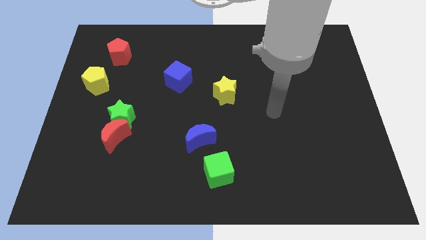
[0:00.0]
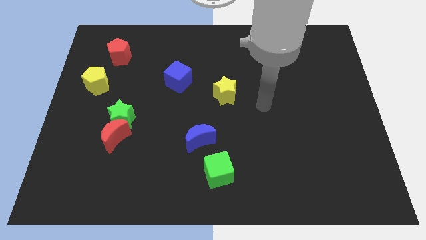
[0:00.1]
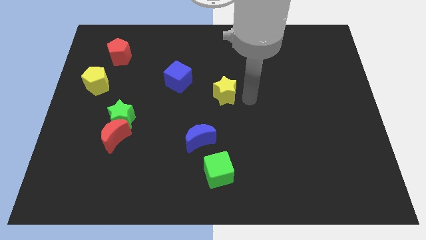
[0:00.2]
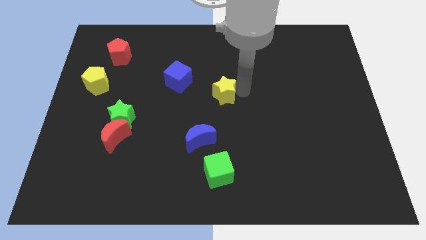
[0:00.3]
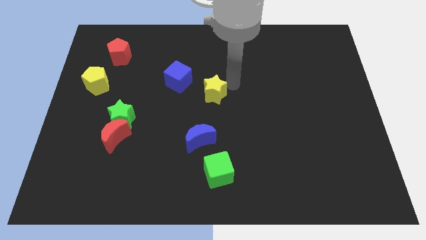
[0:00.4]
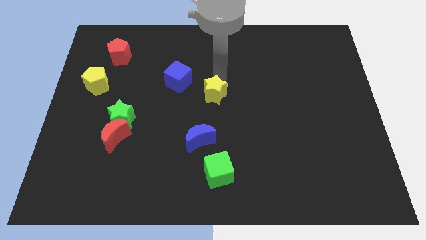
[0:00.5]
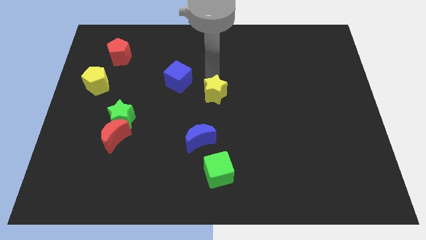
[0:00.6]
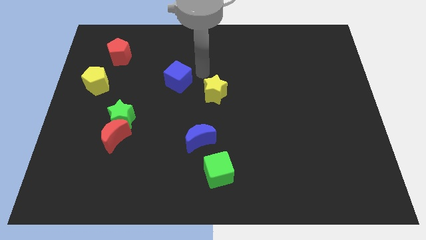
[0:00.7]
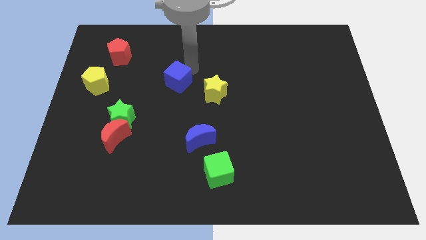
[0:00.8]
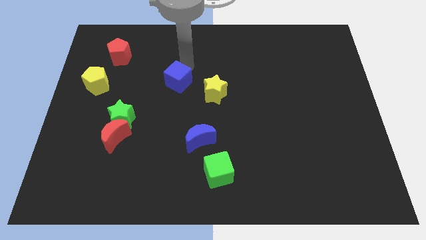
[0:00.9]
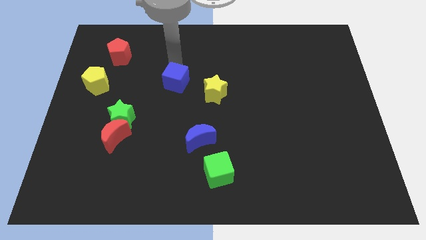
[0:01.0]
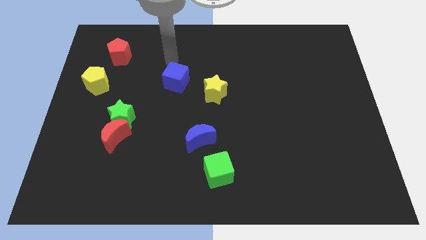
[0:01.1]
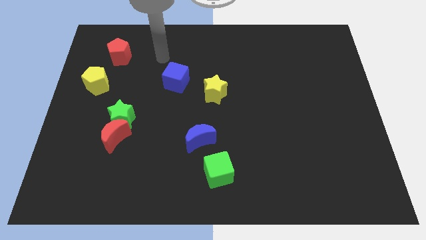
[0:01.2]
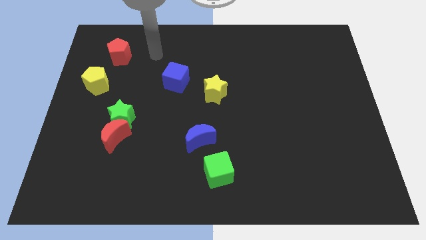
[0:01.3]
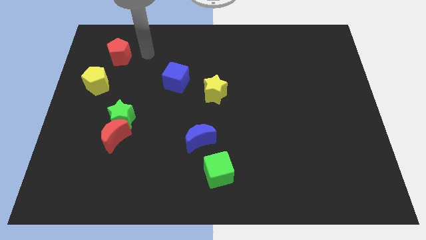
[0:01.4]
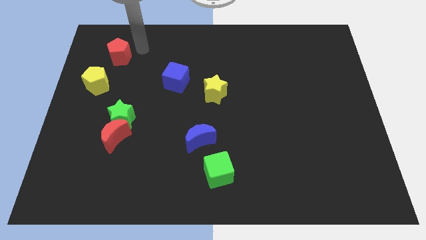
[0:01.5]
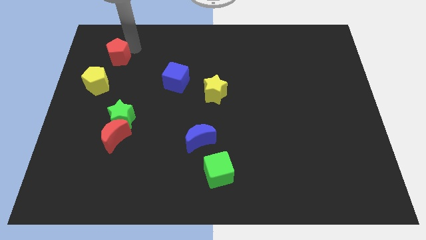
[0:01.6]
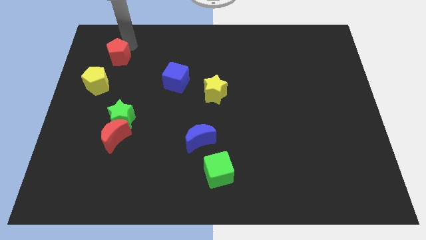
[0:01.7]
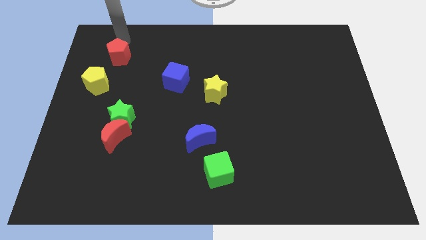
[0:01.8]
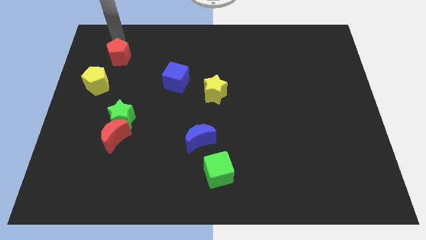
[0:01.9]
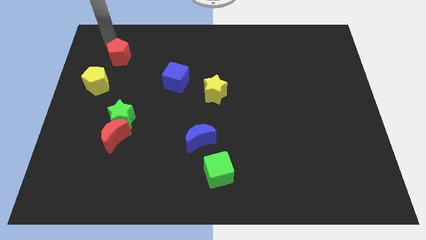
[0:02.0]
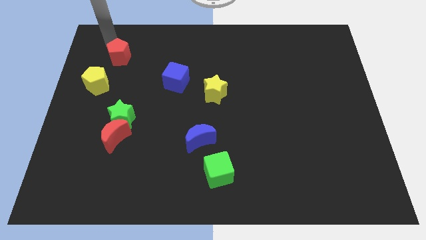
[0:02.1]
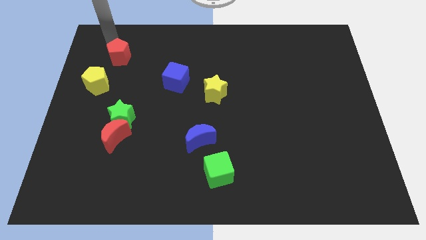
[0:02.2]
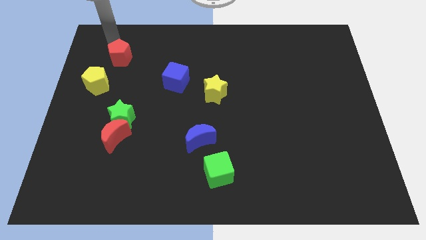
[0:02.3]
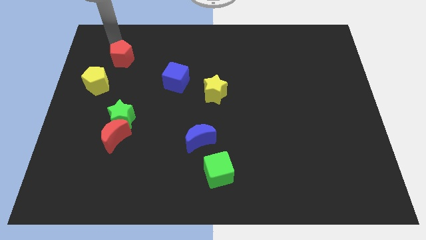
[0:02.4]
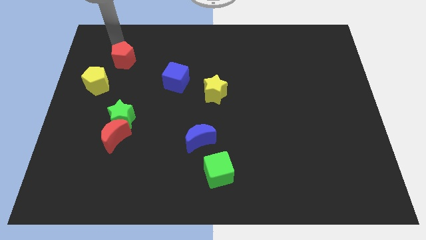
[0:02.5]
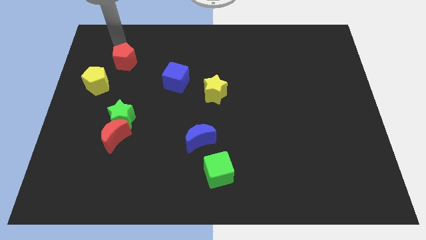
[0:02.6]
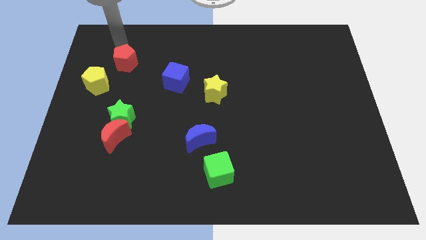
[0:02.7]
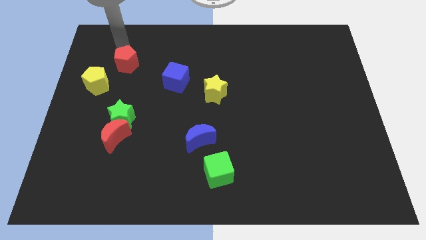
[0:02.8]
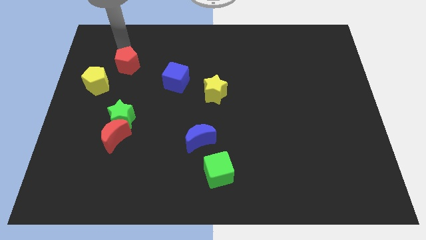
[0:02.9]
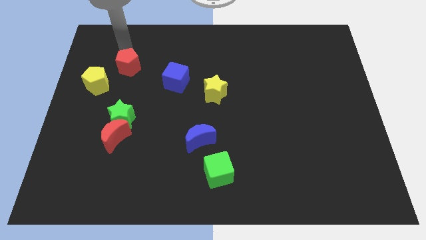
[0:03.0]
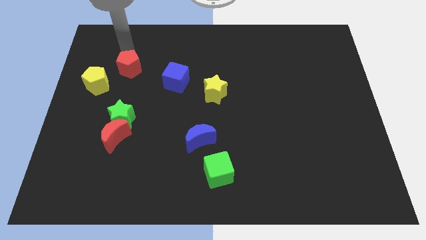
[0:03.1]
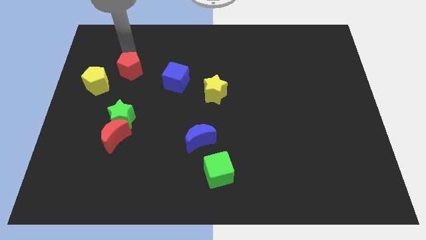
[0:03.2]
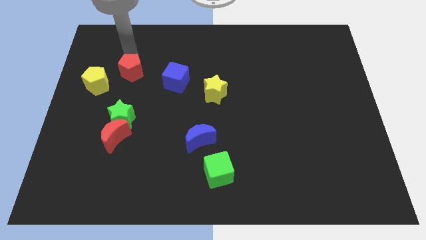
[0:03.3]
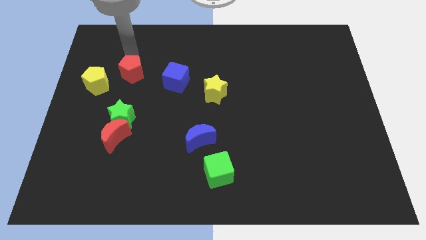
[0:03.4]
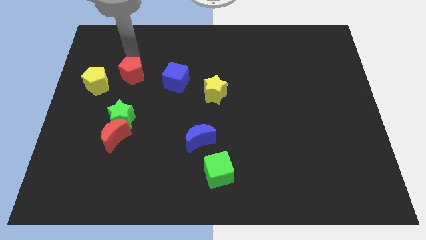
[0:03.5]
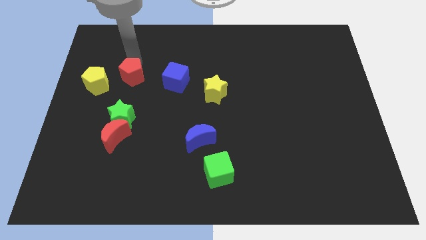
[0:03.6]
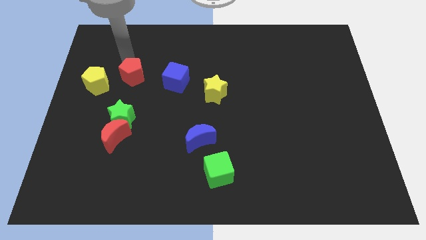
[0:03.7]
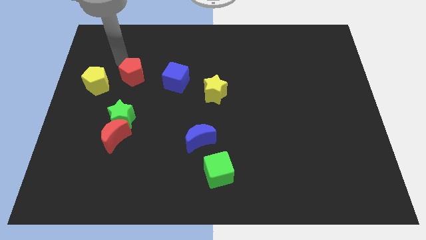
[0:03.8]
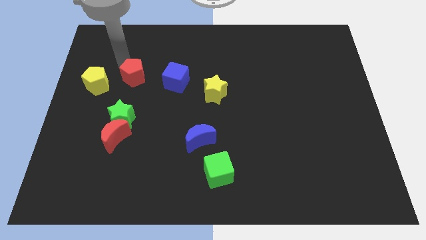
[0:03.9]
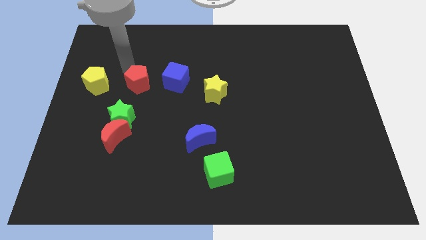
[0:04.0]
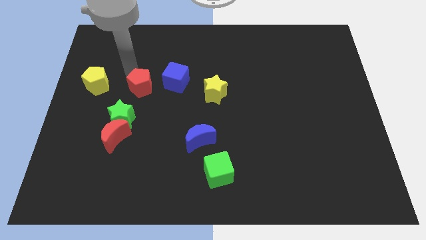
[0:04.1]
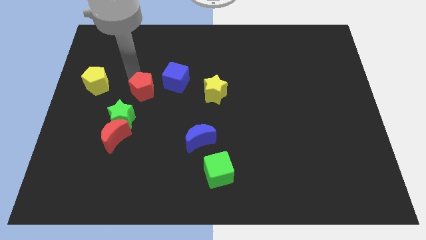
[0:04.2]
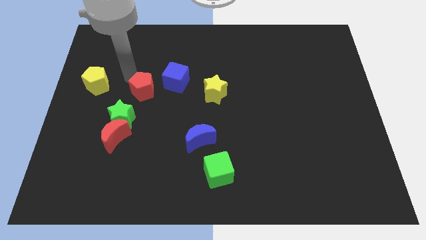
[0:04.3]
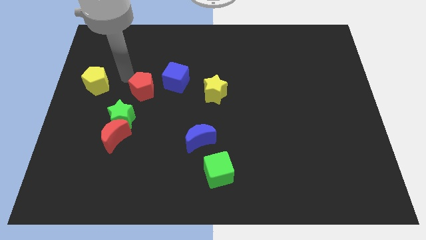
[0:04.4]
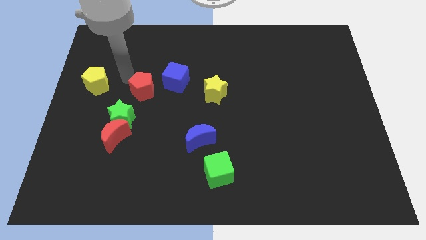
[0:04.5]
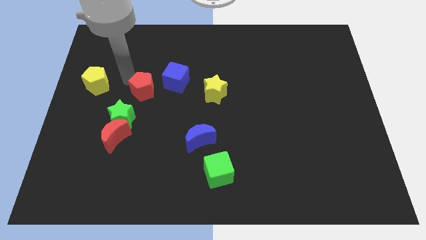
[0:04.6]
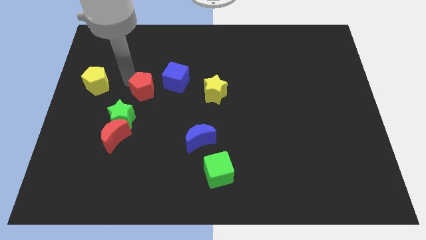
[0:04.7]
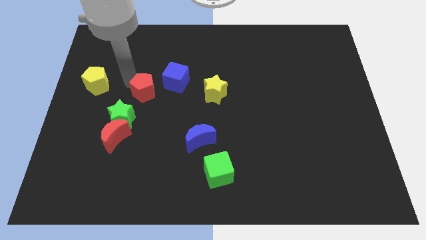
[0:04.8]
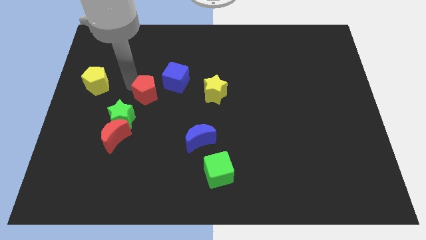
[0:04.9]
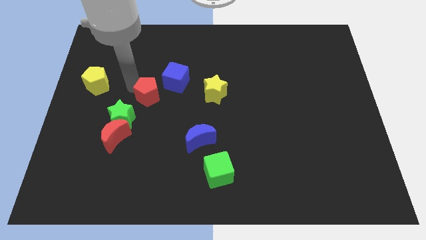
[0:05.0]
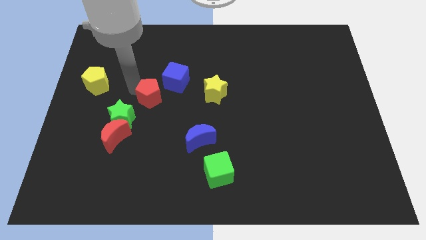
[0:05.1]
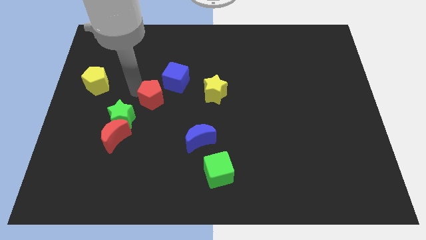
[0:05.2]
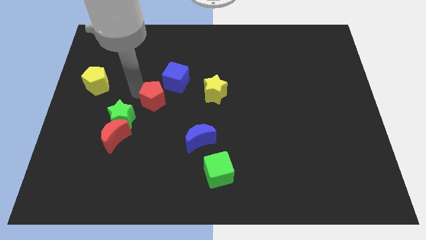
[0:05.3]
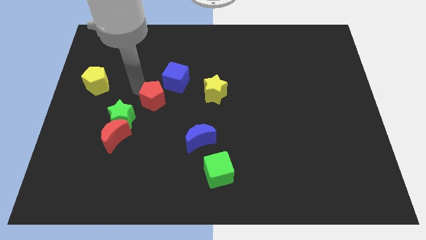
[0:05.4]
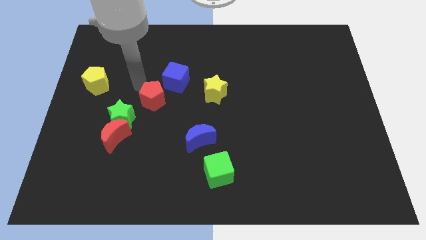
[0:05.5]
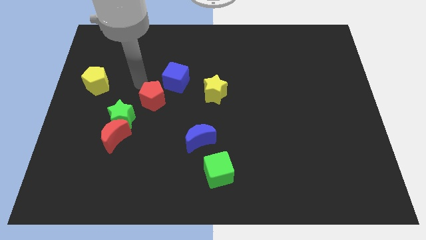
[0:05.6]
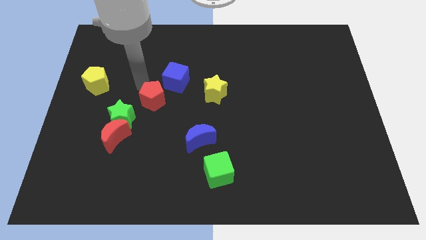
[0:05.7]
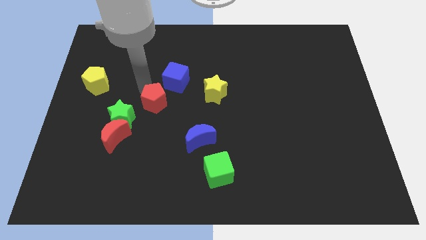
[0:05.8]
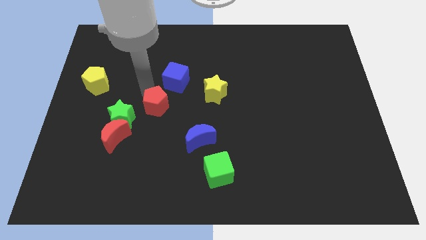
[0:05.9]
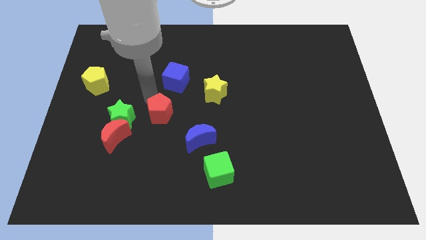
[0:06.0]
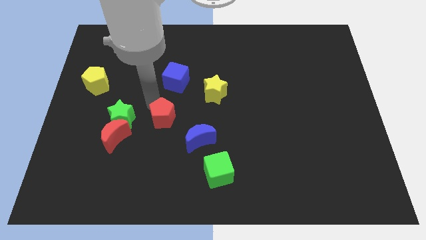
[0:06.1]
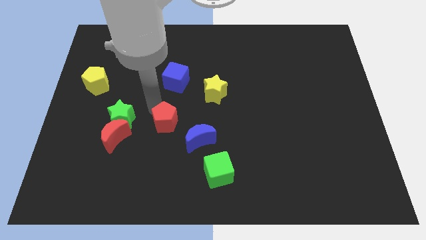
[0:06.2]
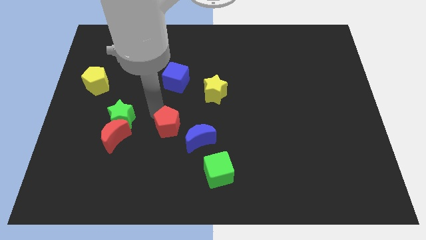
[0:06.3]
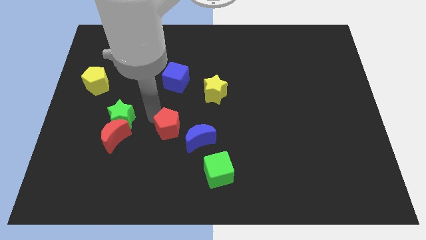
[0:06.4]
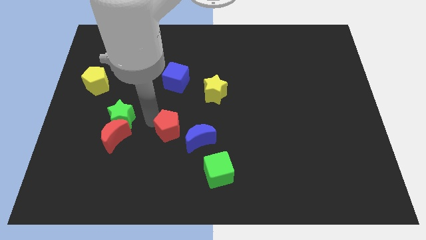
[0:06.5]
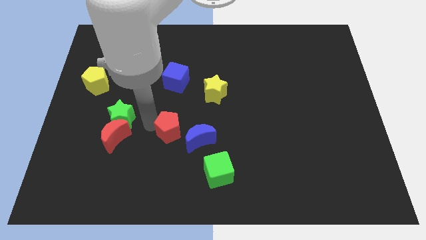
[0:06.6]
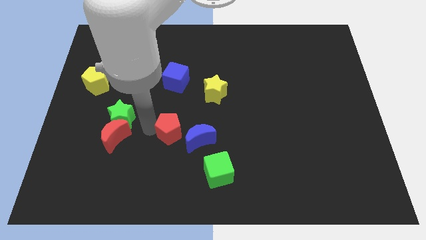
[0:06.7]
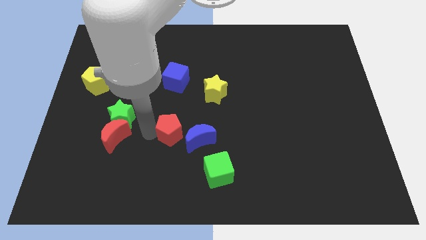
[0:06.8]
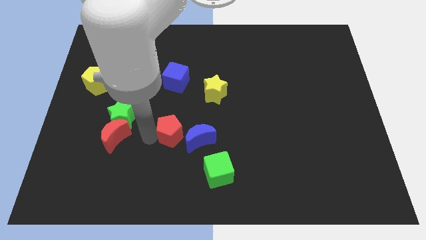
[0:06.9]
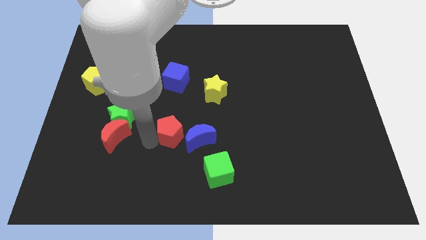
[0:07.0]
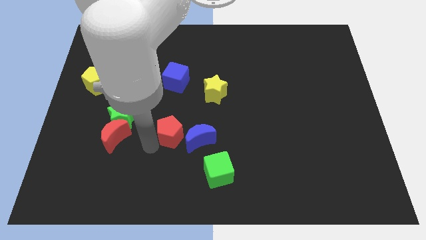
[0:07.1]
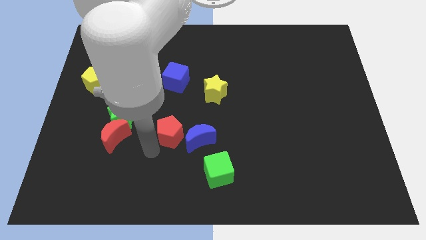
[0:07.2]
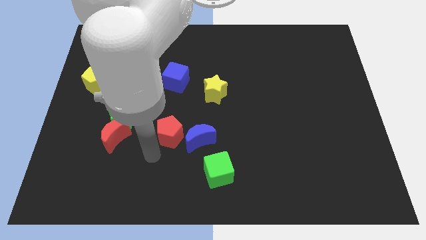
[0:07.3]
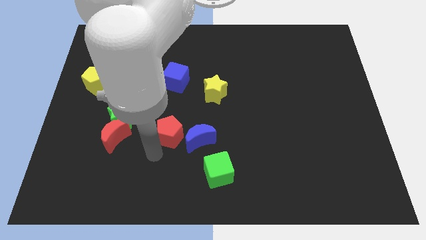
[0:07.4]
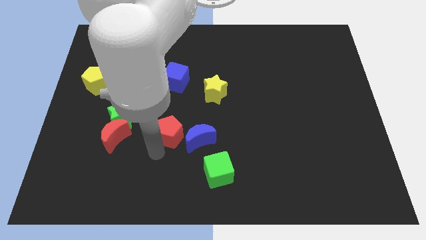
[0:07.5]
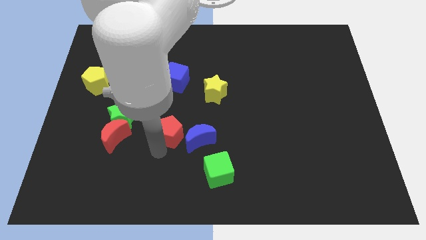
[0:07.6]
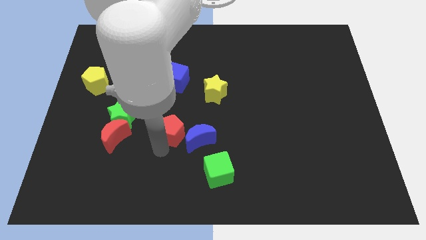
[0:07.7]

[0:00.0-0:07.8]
put the red pentagon close to the blue moon
